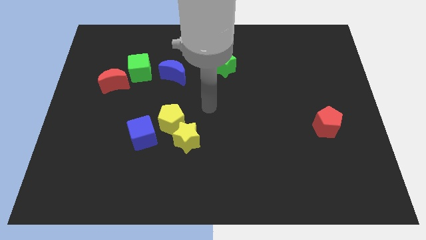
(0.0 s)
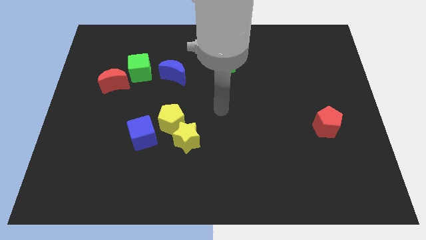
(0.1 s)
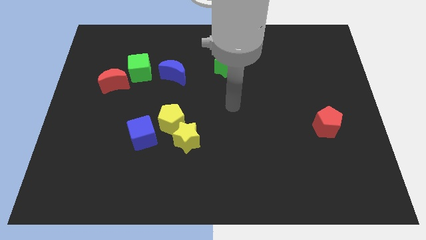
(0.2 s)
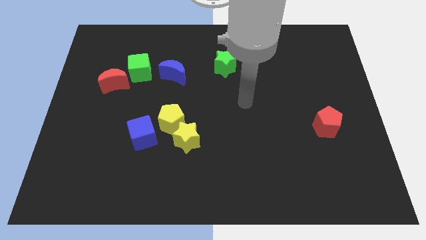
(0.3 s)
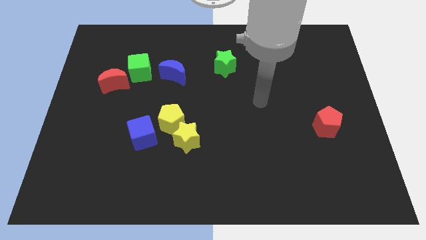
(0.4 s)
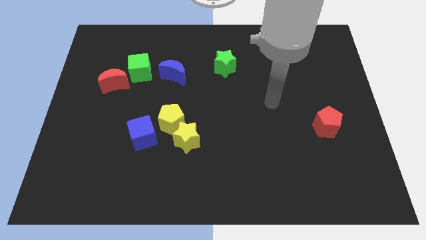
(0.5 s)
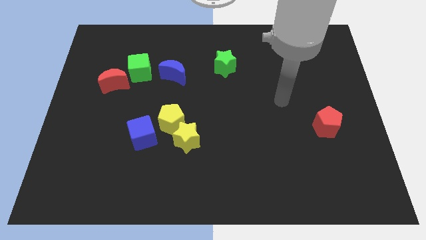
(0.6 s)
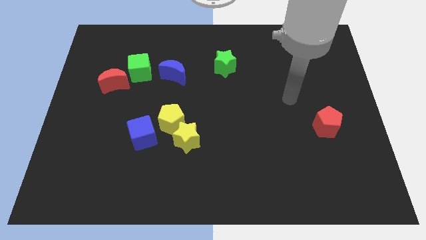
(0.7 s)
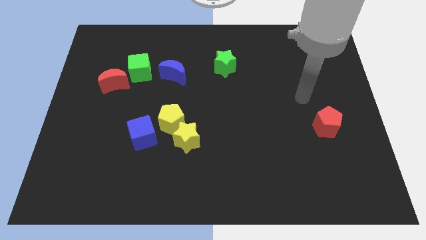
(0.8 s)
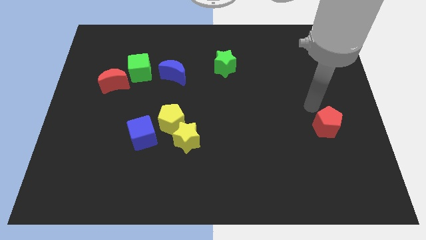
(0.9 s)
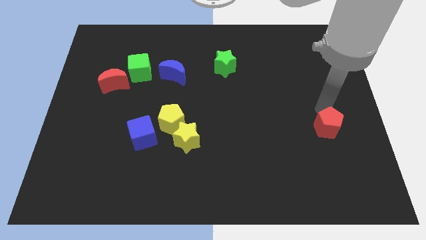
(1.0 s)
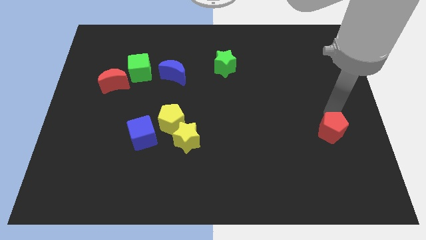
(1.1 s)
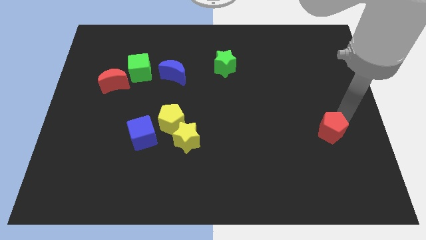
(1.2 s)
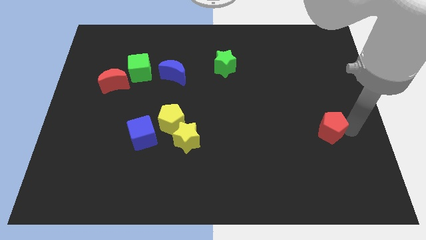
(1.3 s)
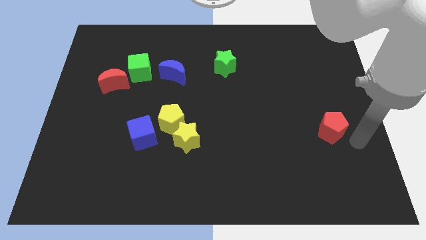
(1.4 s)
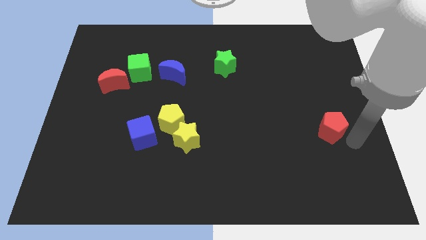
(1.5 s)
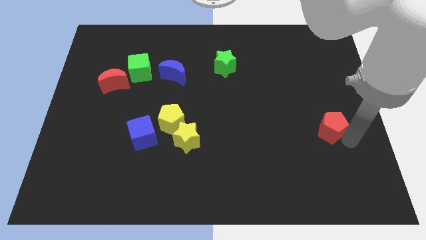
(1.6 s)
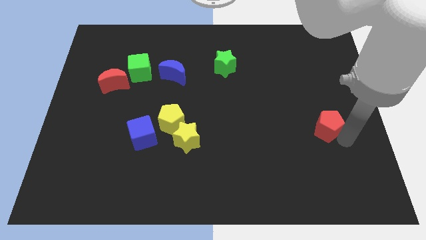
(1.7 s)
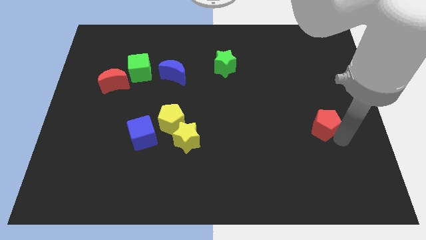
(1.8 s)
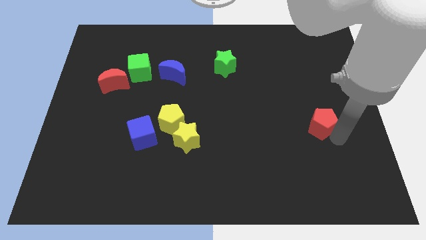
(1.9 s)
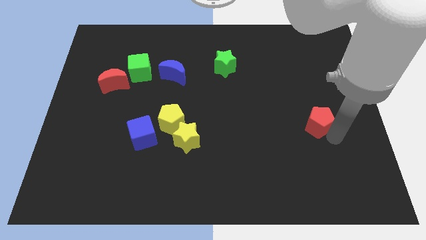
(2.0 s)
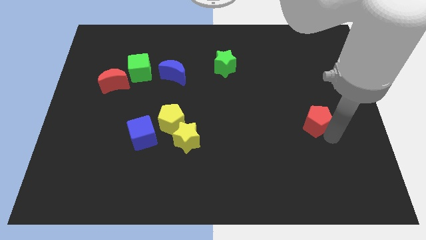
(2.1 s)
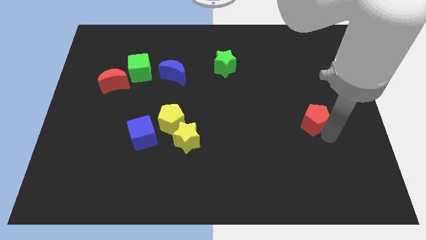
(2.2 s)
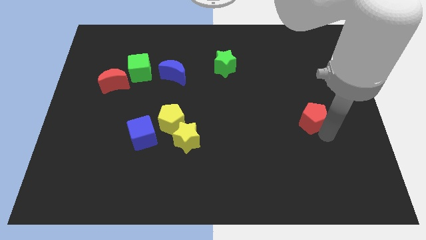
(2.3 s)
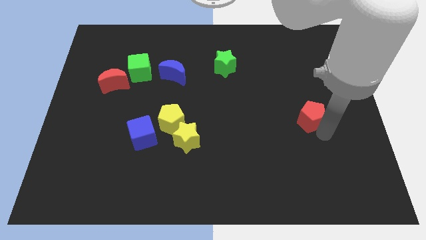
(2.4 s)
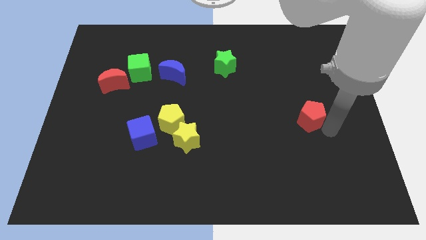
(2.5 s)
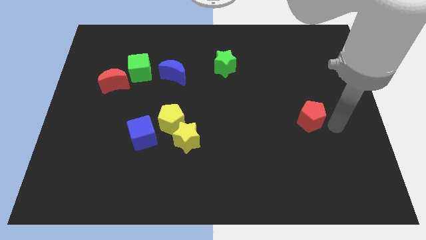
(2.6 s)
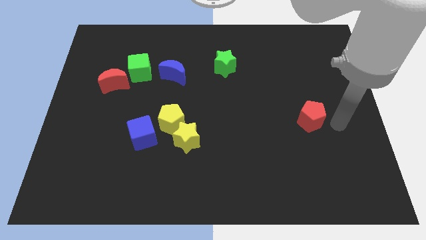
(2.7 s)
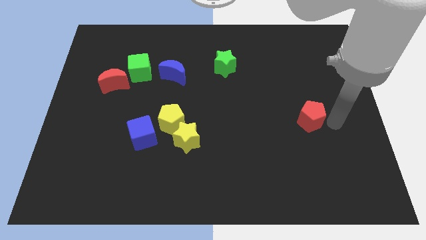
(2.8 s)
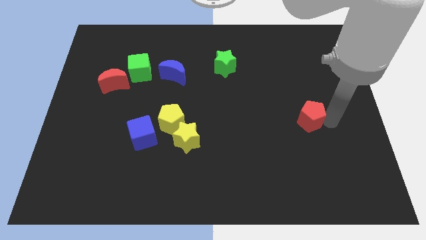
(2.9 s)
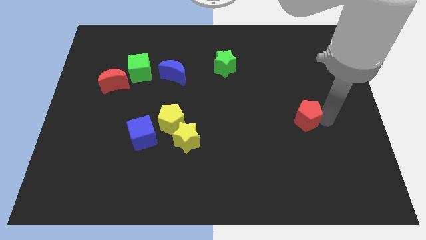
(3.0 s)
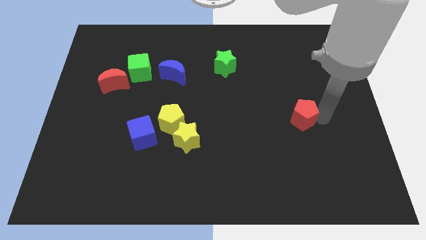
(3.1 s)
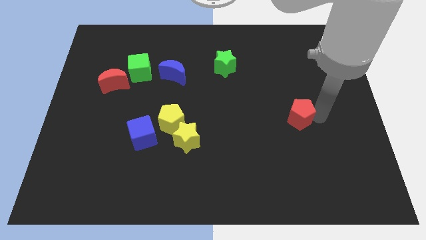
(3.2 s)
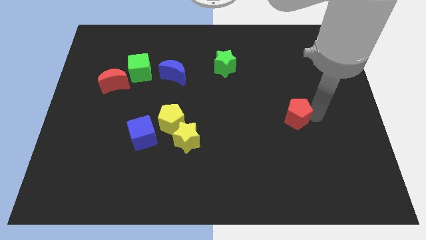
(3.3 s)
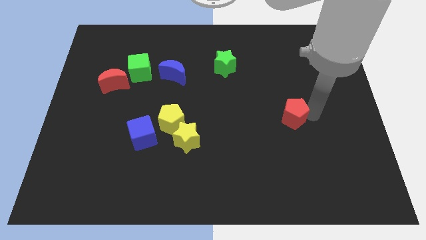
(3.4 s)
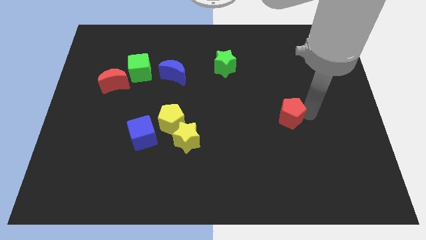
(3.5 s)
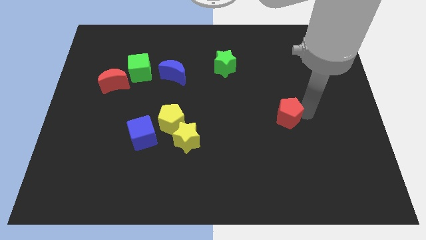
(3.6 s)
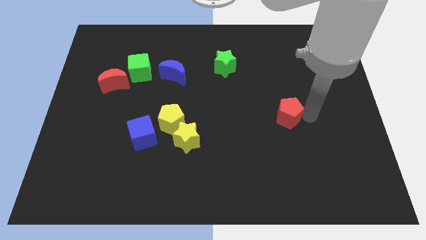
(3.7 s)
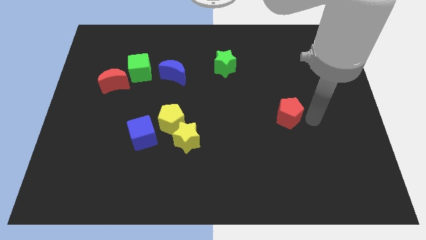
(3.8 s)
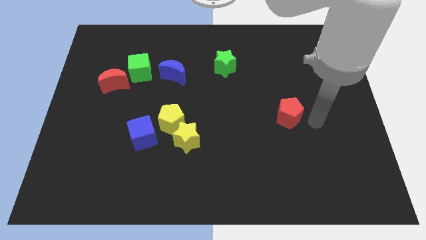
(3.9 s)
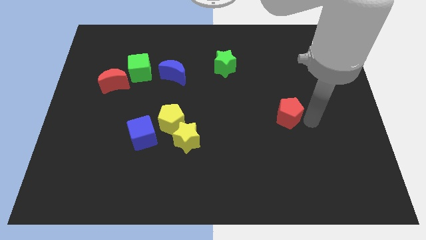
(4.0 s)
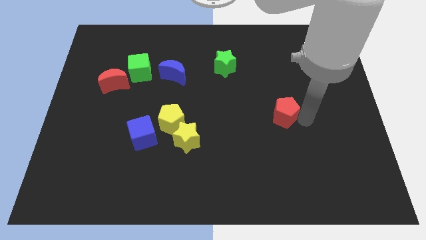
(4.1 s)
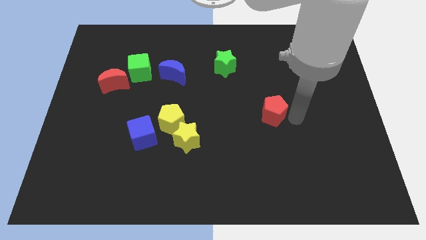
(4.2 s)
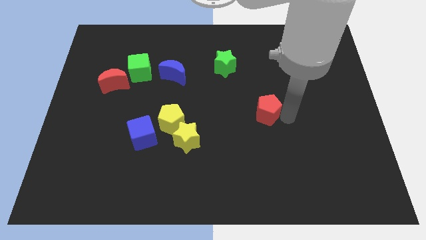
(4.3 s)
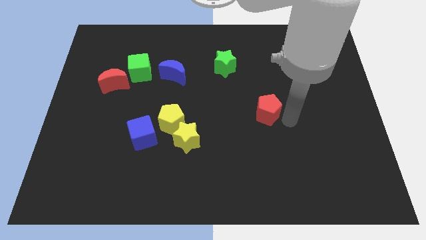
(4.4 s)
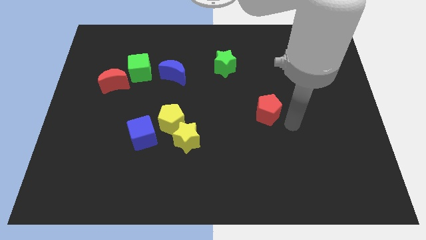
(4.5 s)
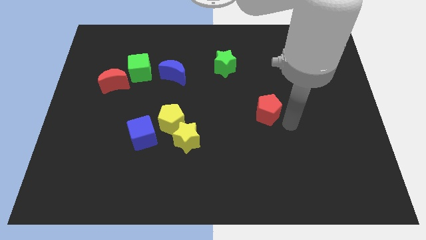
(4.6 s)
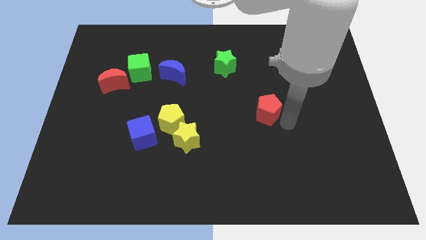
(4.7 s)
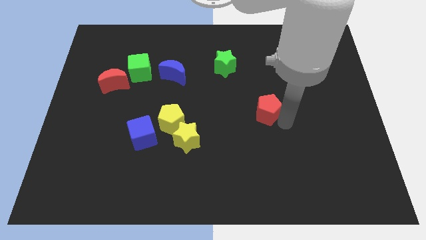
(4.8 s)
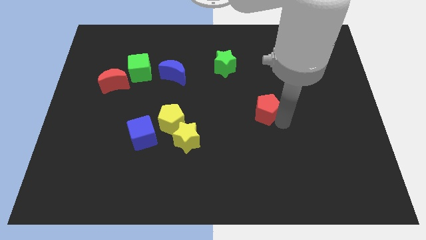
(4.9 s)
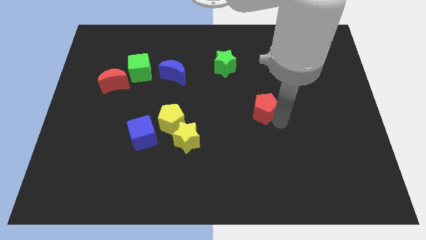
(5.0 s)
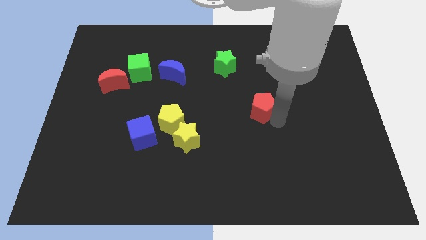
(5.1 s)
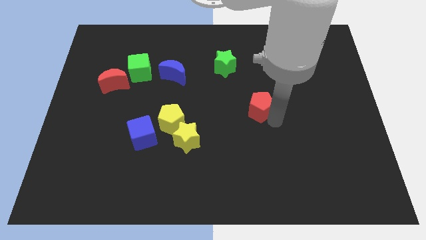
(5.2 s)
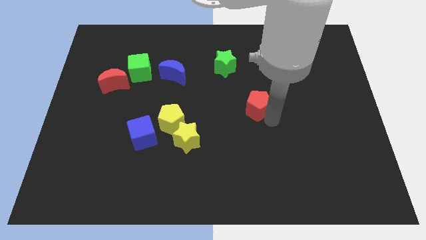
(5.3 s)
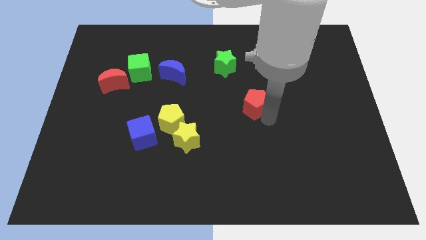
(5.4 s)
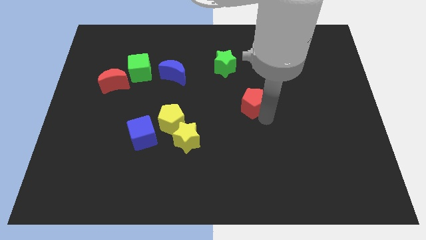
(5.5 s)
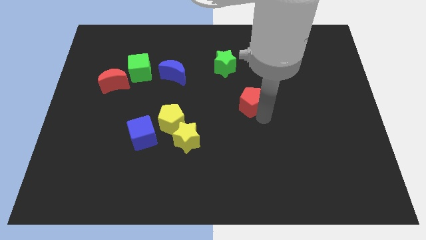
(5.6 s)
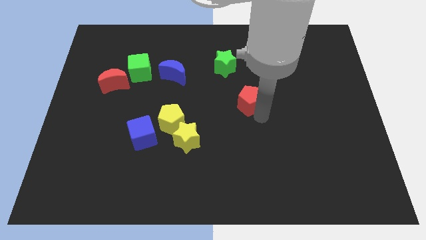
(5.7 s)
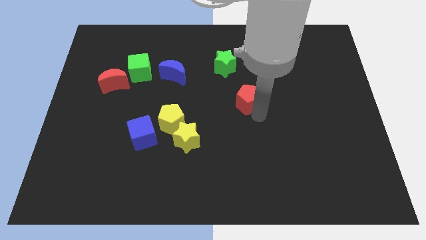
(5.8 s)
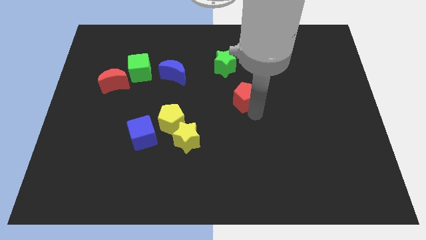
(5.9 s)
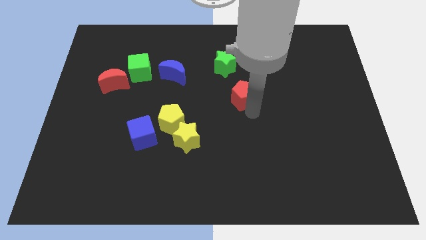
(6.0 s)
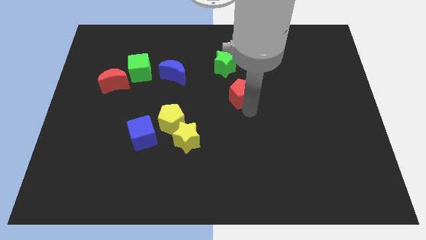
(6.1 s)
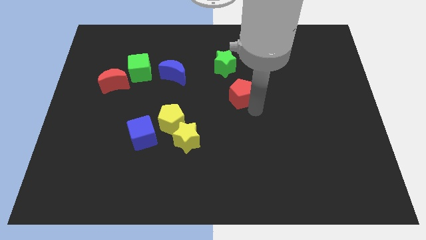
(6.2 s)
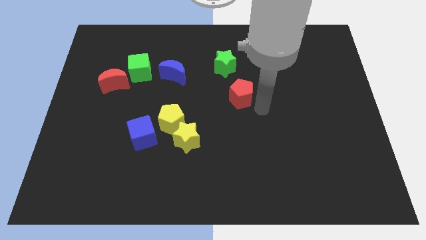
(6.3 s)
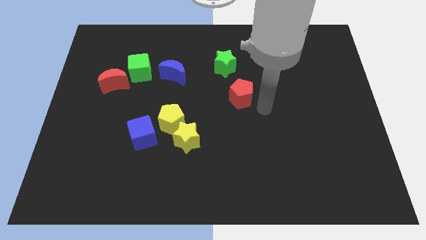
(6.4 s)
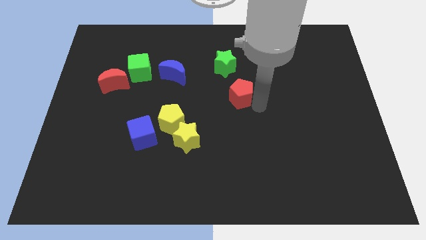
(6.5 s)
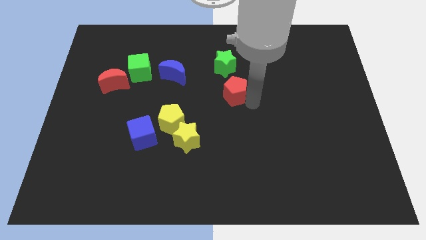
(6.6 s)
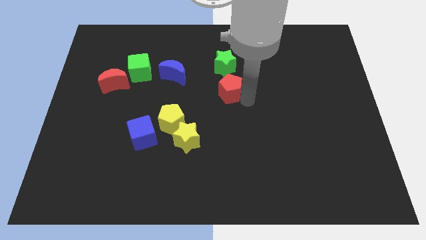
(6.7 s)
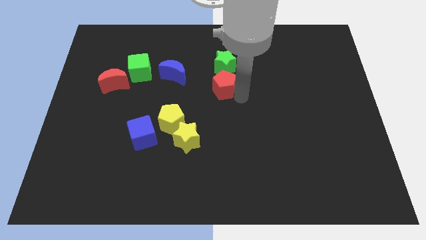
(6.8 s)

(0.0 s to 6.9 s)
push the red pentagon diagonally down and to the left of the green star
